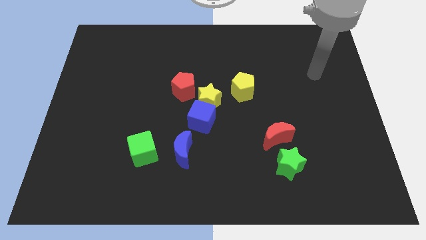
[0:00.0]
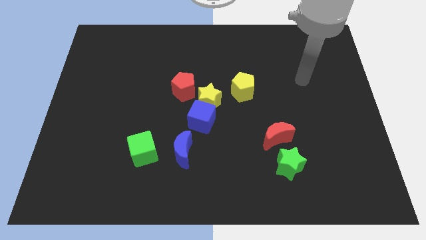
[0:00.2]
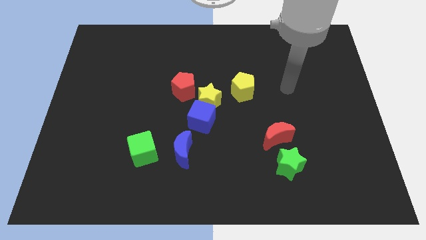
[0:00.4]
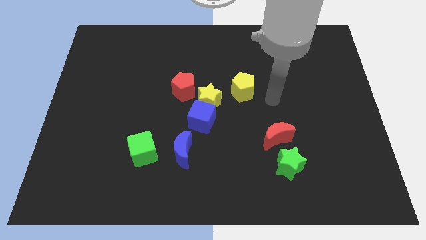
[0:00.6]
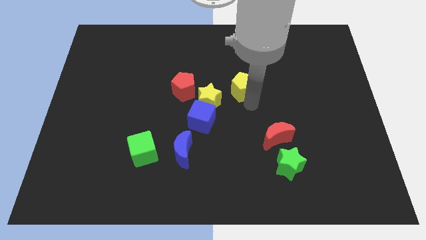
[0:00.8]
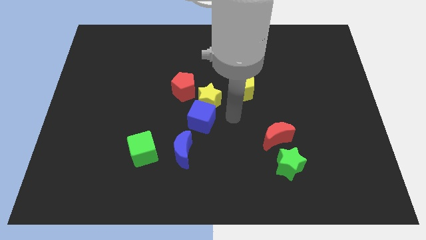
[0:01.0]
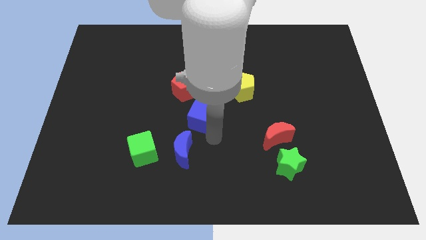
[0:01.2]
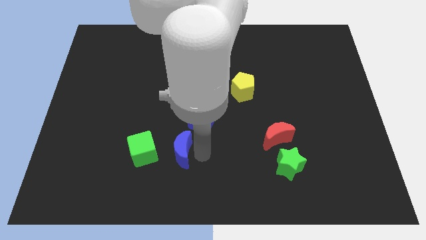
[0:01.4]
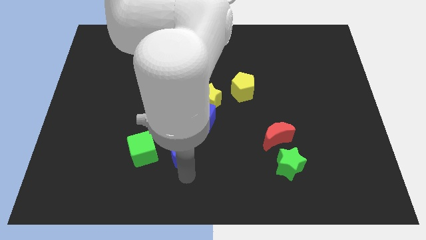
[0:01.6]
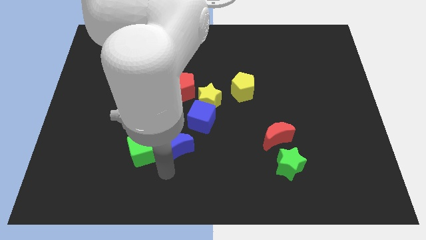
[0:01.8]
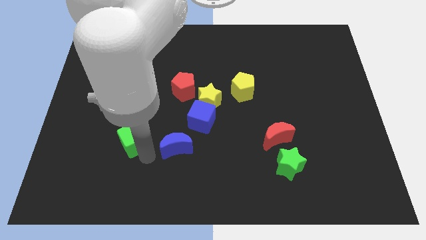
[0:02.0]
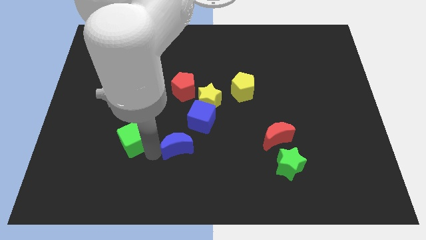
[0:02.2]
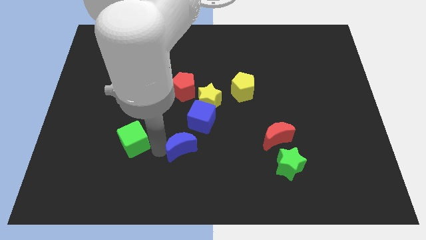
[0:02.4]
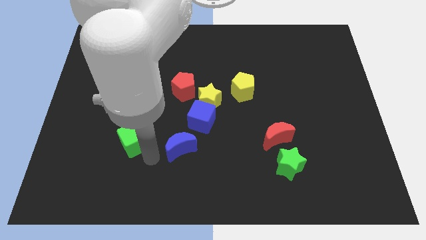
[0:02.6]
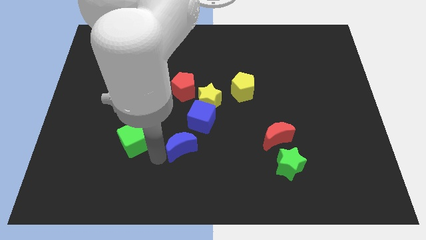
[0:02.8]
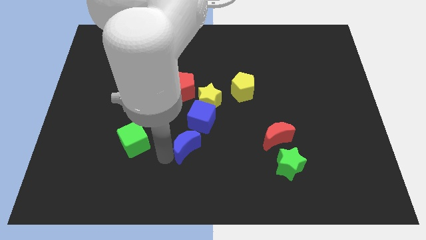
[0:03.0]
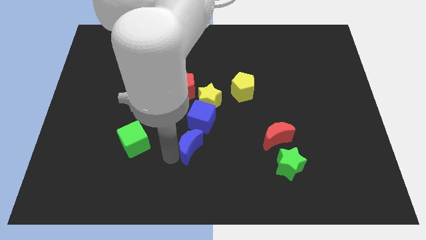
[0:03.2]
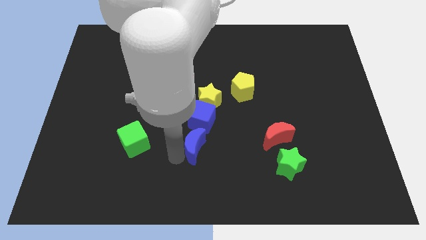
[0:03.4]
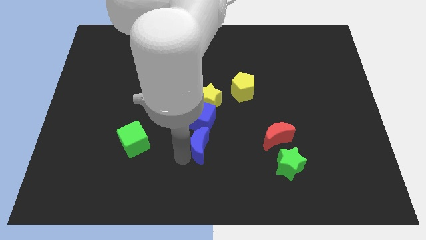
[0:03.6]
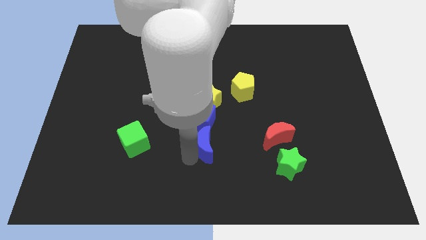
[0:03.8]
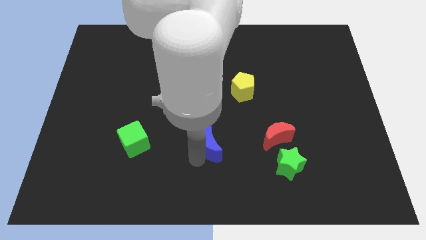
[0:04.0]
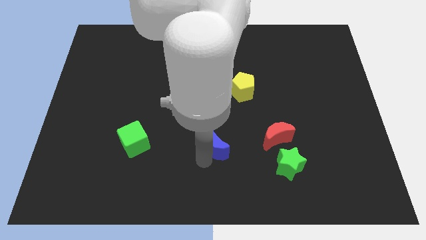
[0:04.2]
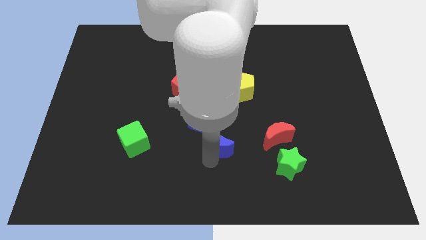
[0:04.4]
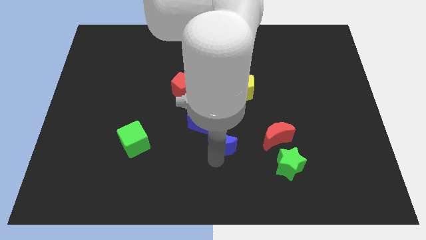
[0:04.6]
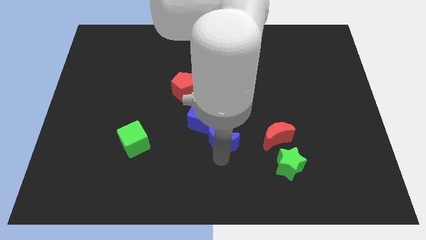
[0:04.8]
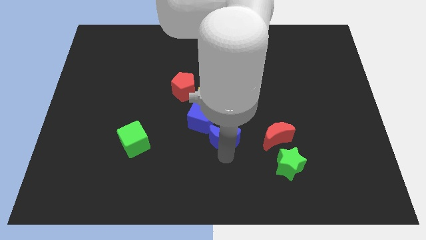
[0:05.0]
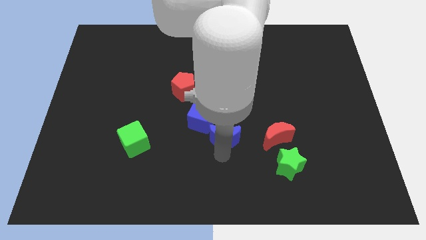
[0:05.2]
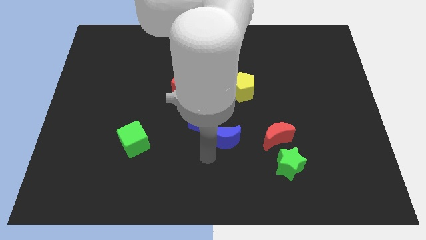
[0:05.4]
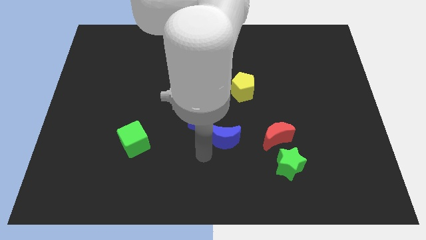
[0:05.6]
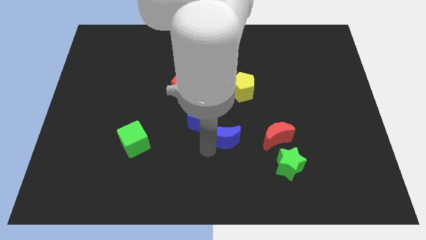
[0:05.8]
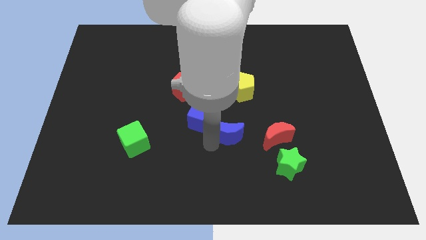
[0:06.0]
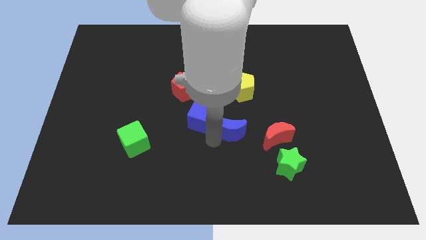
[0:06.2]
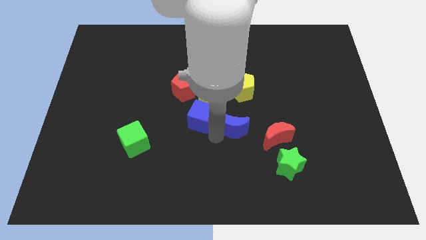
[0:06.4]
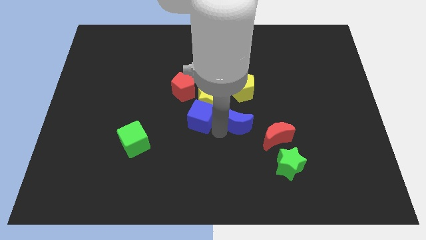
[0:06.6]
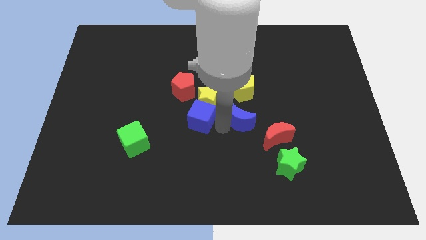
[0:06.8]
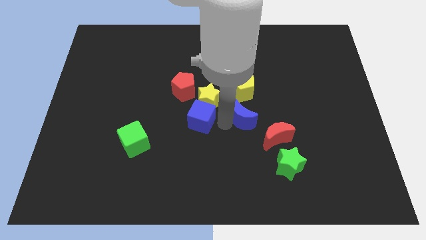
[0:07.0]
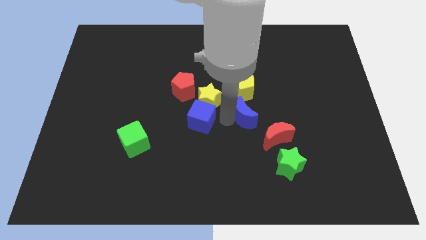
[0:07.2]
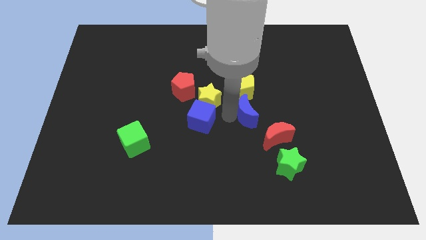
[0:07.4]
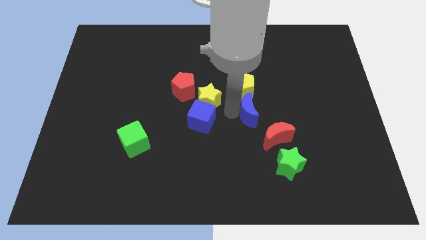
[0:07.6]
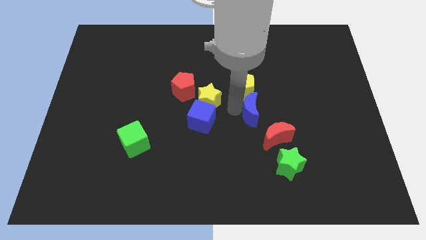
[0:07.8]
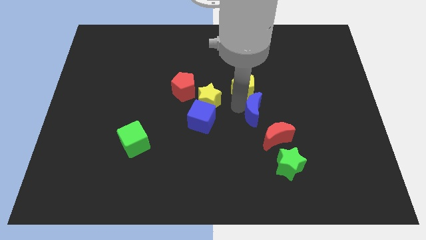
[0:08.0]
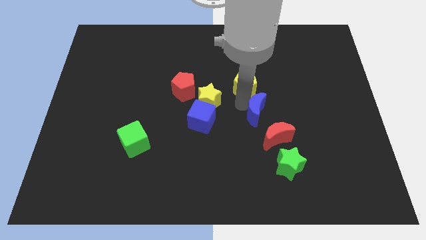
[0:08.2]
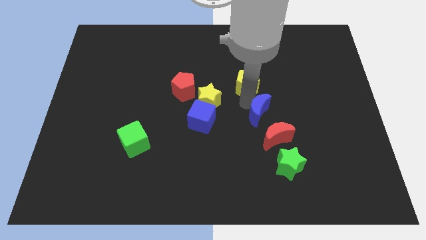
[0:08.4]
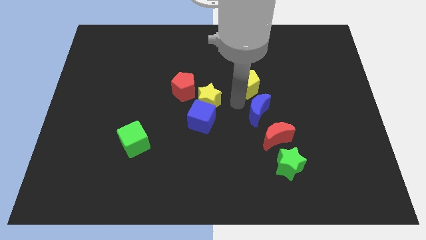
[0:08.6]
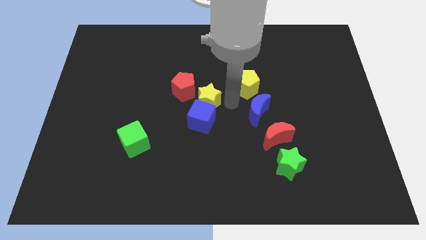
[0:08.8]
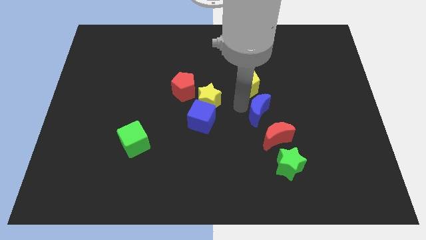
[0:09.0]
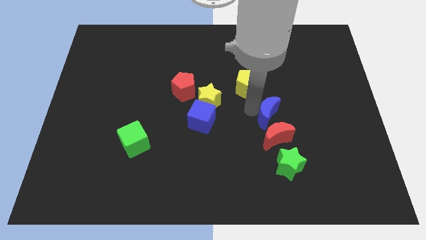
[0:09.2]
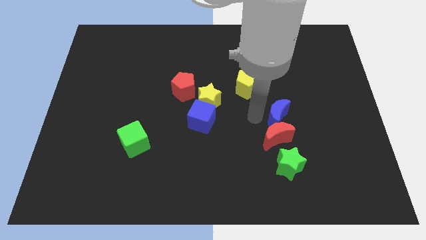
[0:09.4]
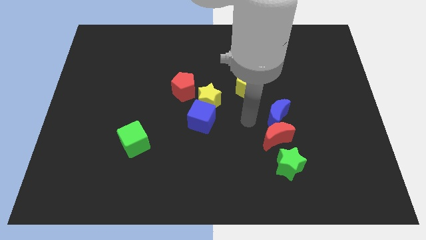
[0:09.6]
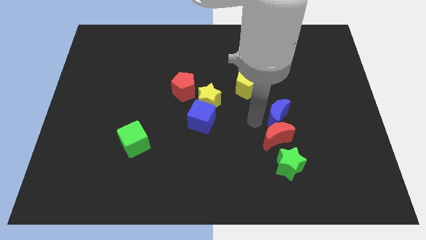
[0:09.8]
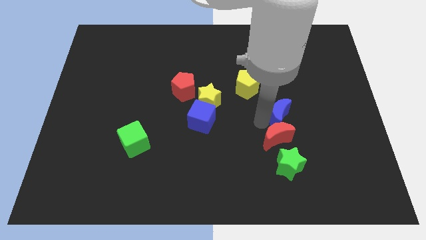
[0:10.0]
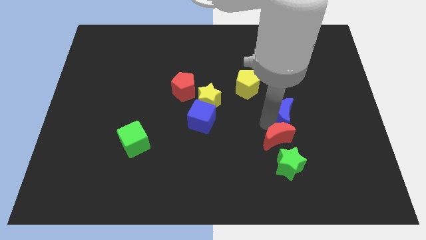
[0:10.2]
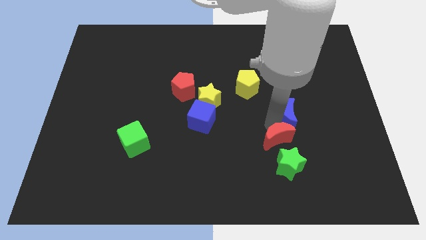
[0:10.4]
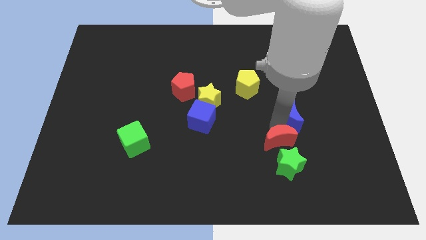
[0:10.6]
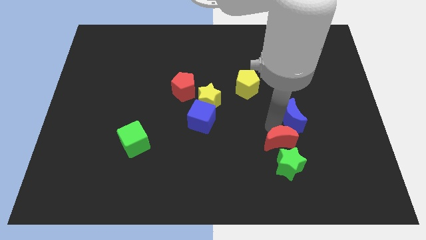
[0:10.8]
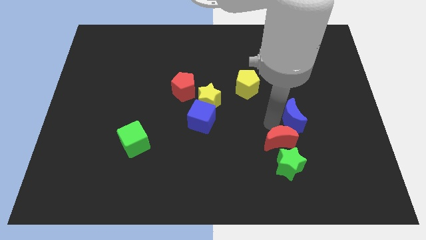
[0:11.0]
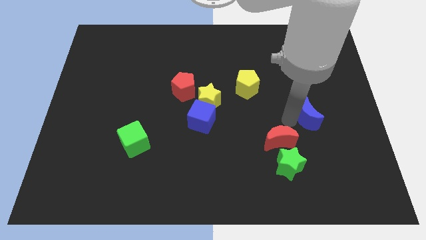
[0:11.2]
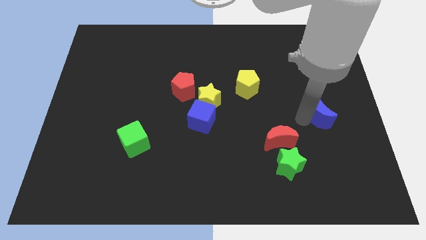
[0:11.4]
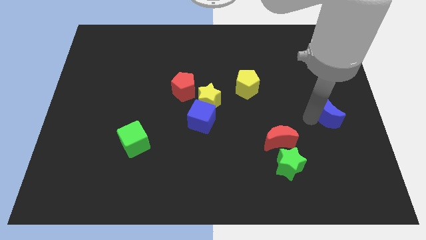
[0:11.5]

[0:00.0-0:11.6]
put the blue moon to the right side of the board
